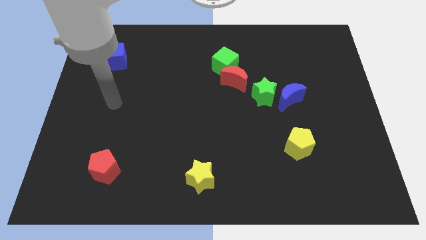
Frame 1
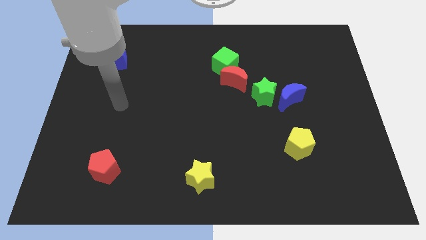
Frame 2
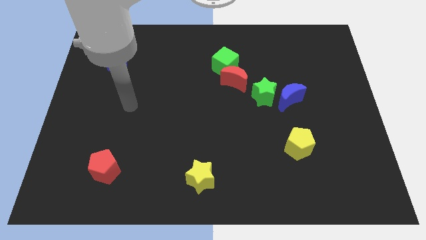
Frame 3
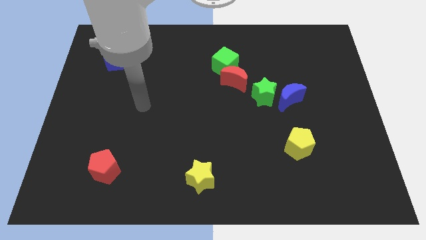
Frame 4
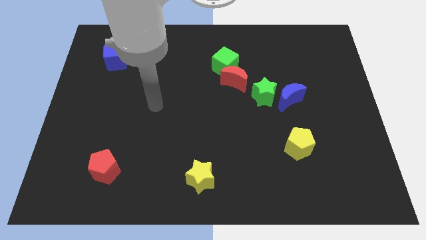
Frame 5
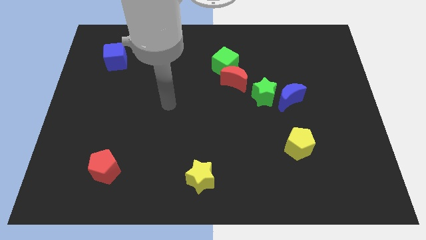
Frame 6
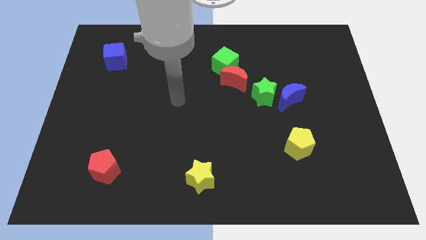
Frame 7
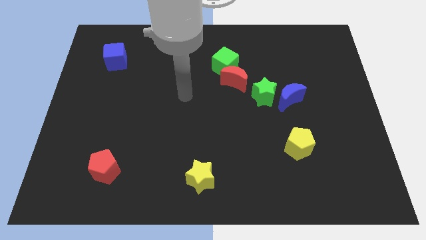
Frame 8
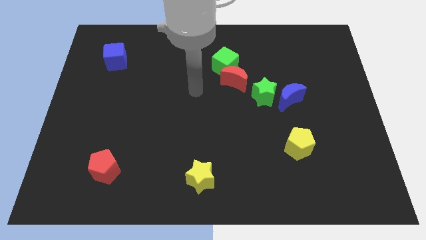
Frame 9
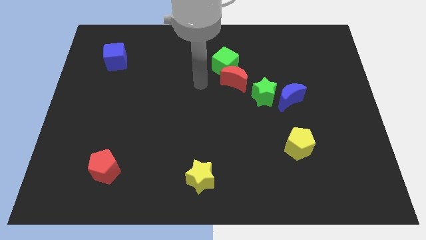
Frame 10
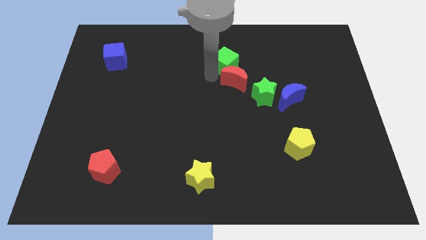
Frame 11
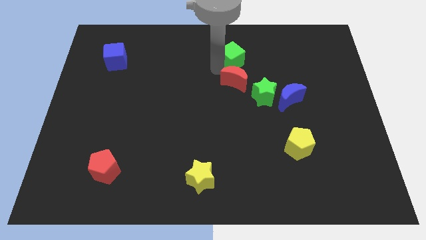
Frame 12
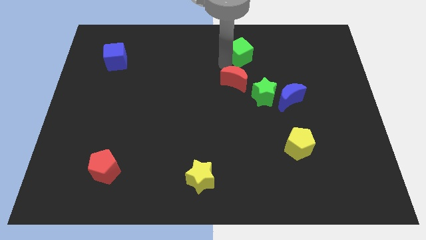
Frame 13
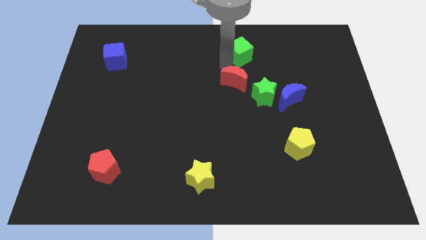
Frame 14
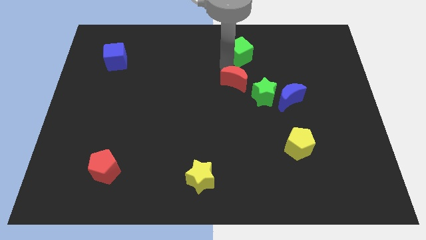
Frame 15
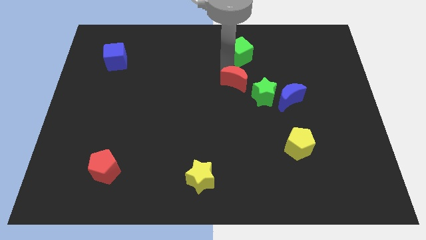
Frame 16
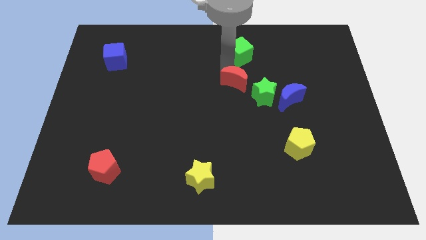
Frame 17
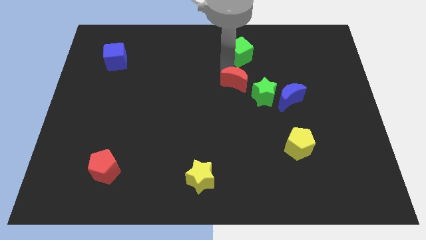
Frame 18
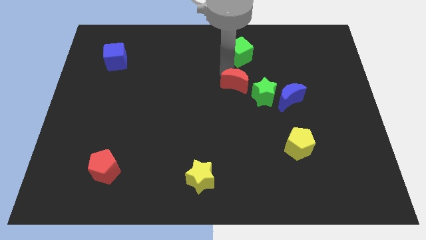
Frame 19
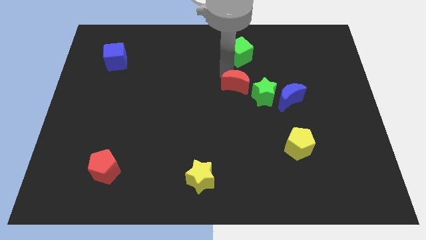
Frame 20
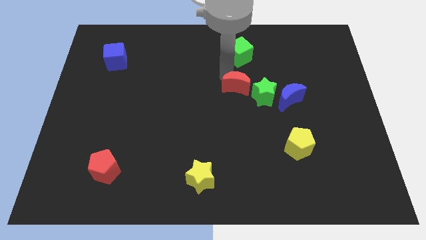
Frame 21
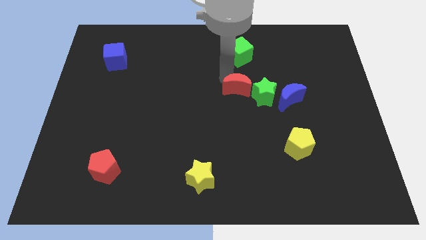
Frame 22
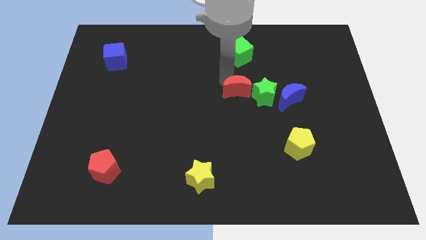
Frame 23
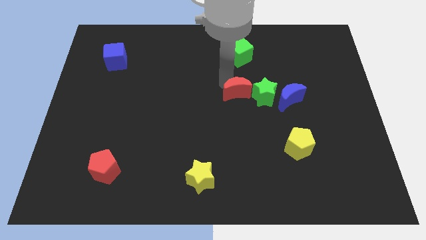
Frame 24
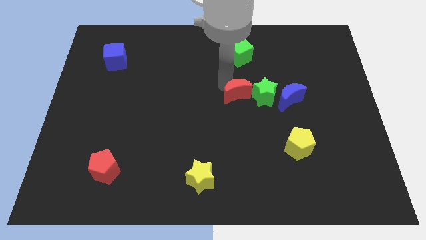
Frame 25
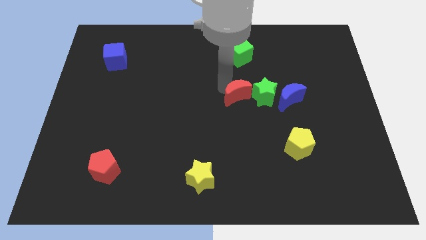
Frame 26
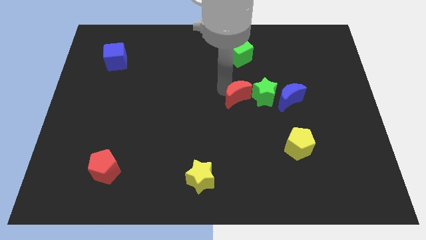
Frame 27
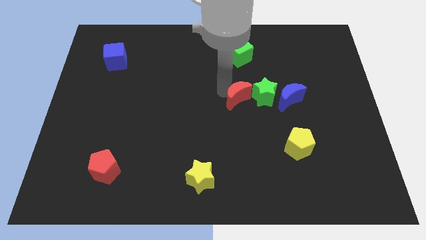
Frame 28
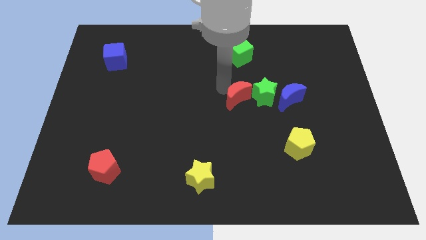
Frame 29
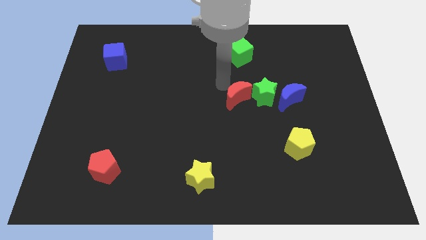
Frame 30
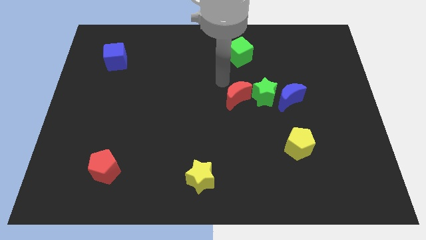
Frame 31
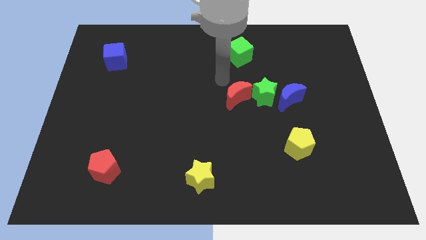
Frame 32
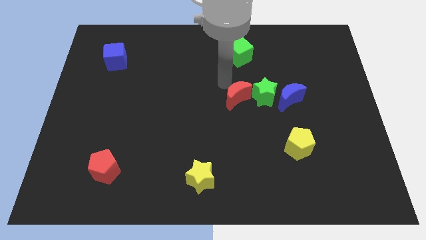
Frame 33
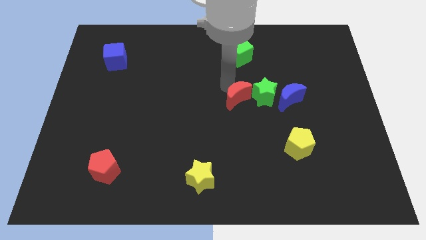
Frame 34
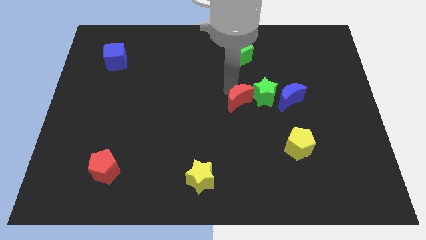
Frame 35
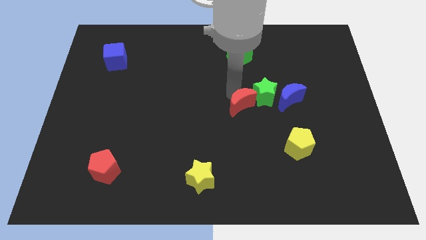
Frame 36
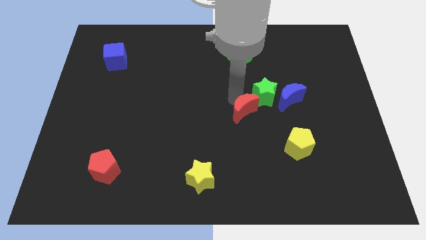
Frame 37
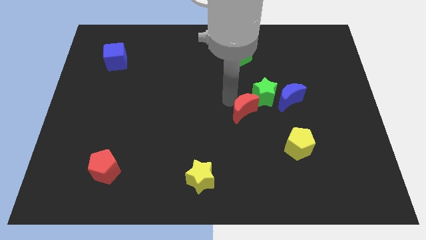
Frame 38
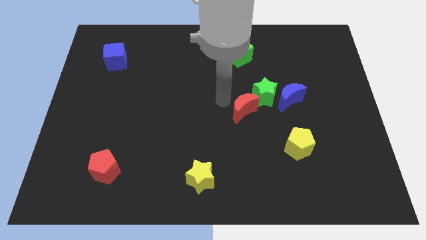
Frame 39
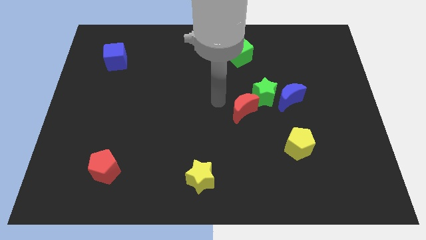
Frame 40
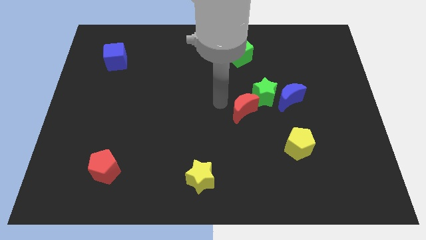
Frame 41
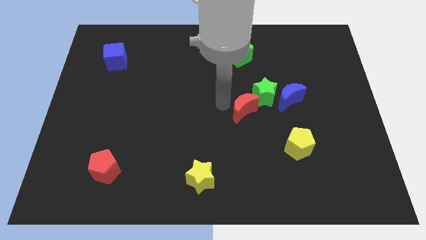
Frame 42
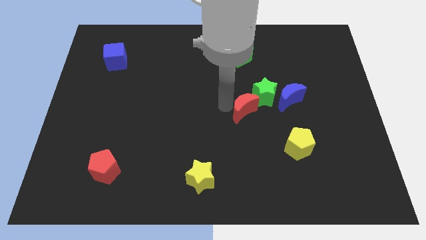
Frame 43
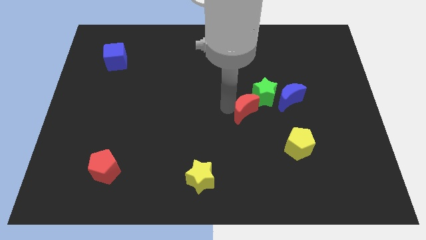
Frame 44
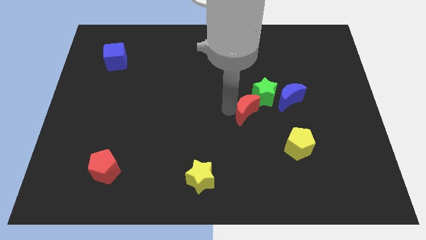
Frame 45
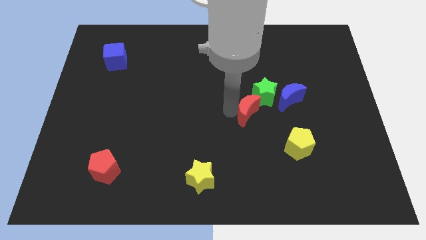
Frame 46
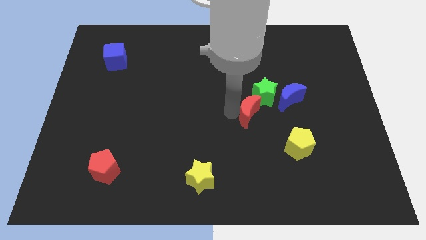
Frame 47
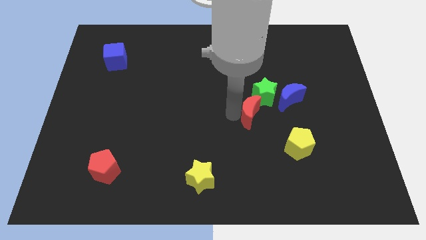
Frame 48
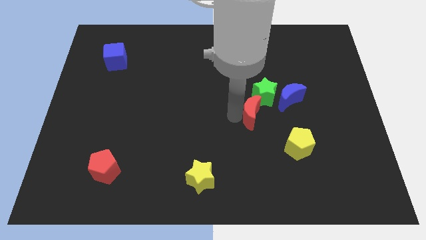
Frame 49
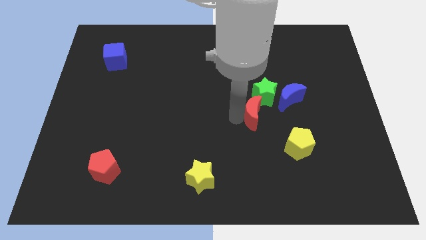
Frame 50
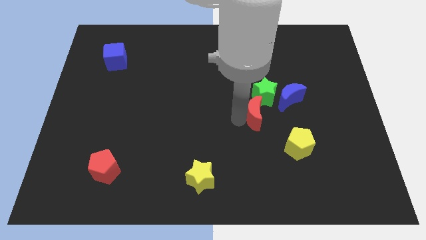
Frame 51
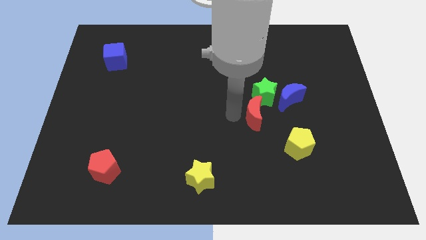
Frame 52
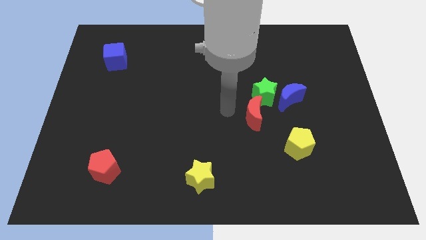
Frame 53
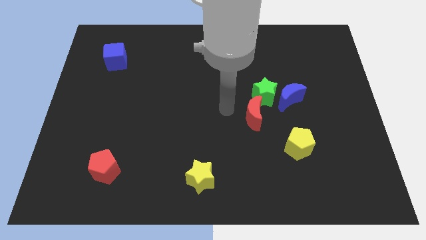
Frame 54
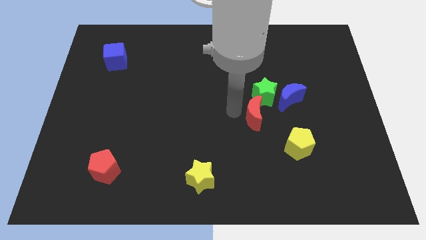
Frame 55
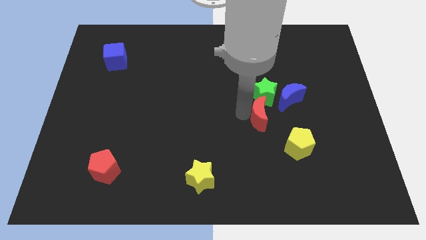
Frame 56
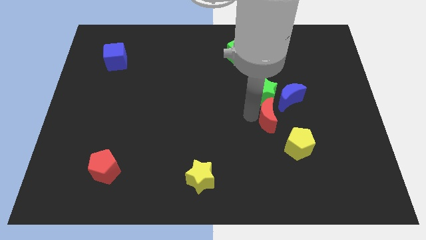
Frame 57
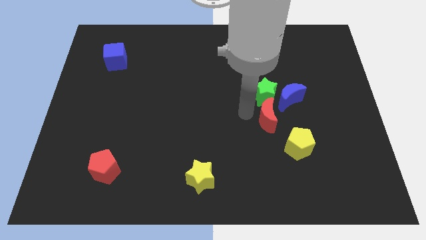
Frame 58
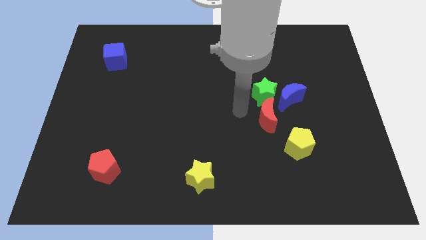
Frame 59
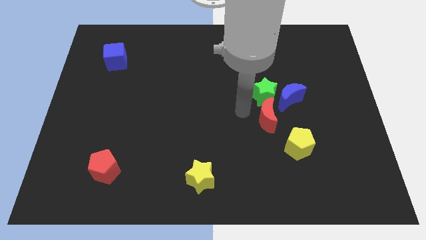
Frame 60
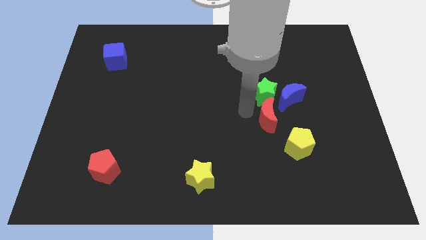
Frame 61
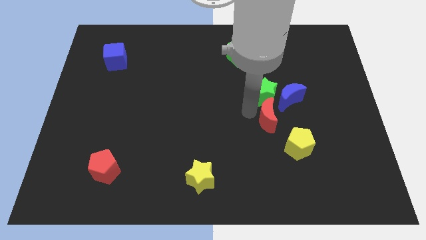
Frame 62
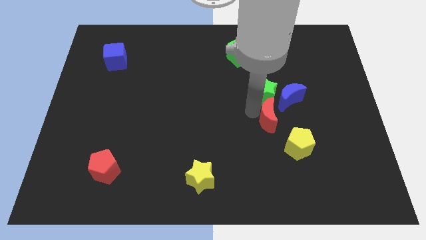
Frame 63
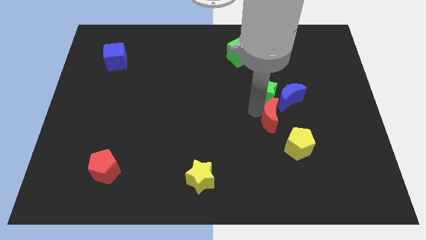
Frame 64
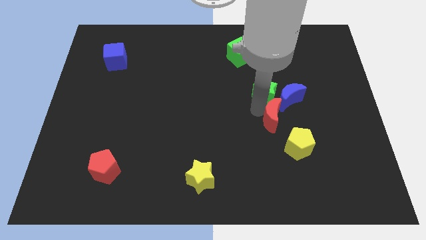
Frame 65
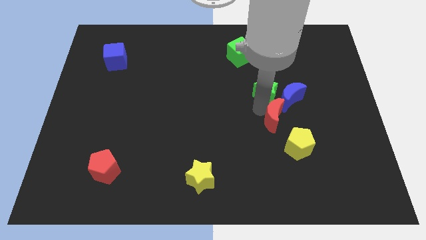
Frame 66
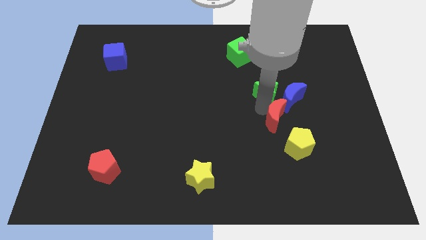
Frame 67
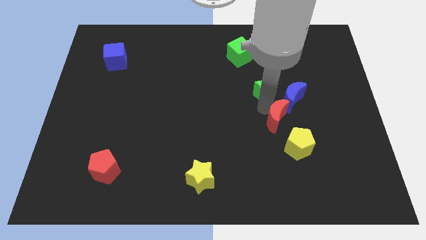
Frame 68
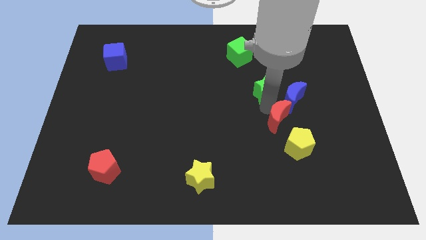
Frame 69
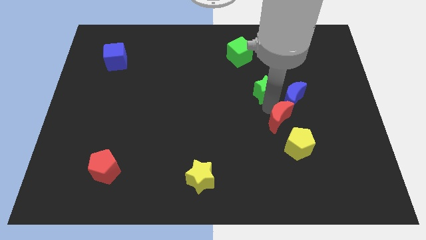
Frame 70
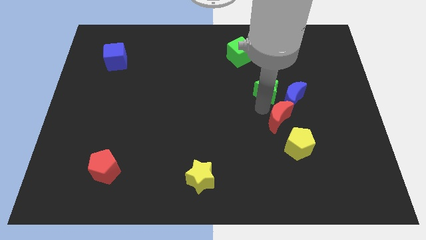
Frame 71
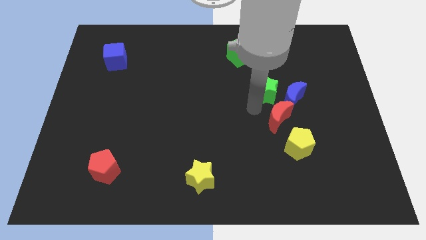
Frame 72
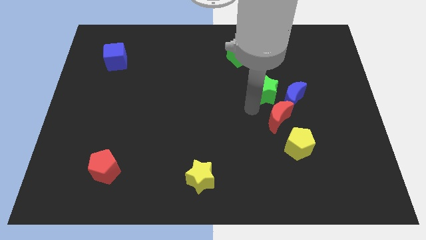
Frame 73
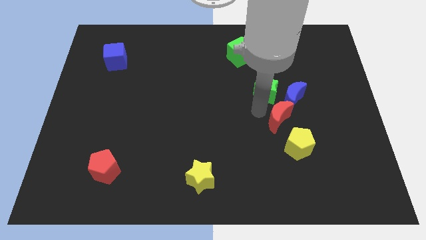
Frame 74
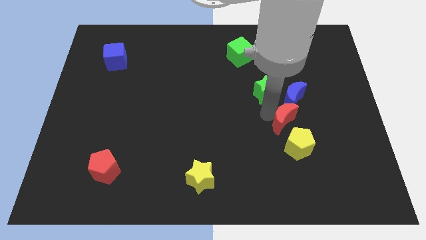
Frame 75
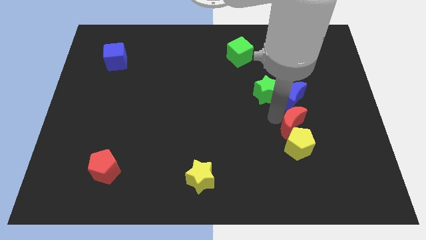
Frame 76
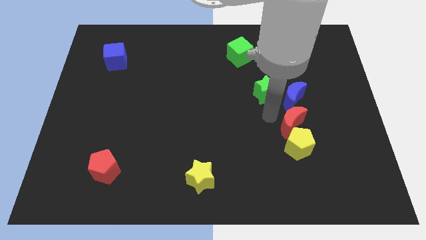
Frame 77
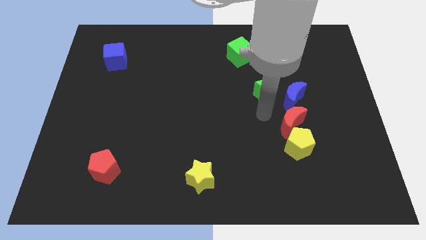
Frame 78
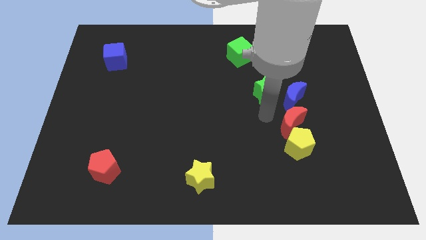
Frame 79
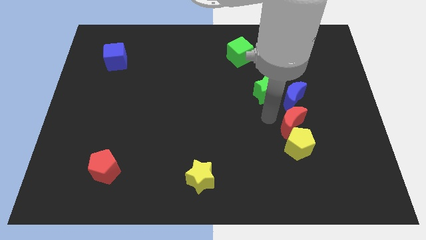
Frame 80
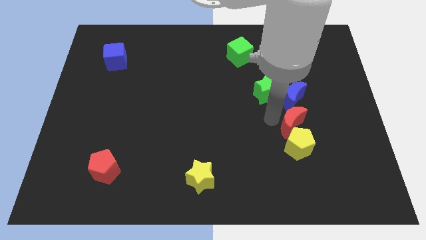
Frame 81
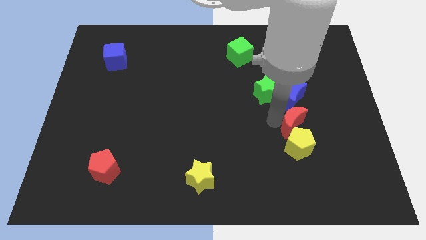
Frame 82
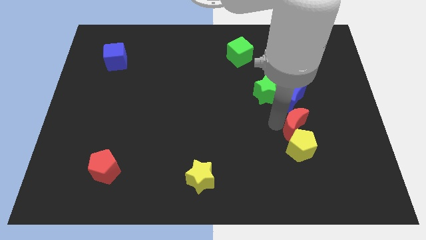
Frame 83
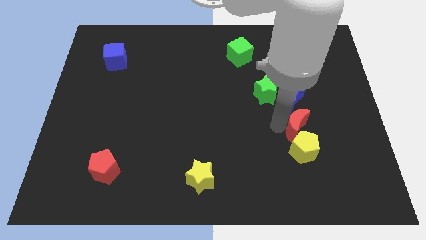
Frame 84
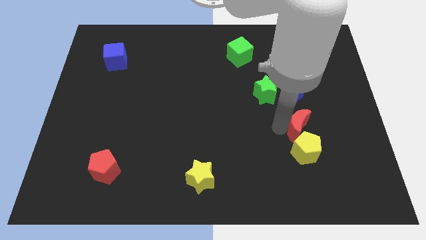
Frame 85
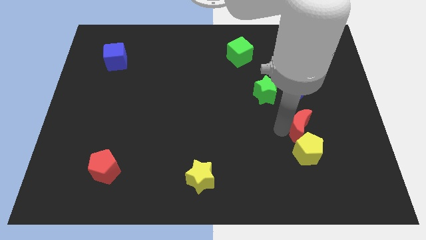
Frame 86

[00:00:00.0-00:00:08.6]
slide the red moon downwards and then to the right
